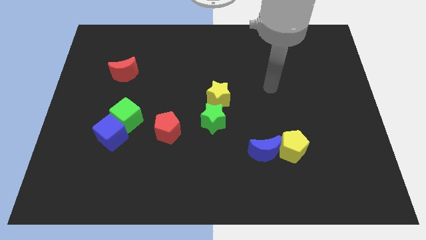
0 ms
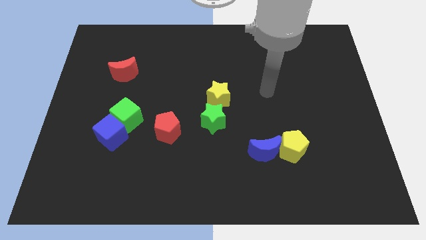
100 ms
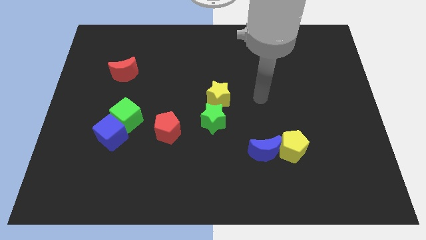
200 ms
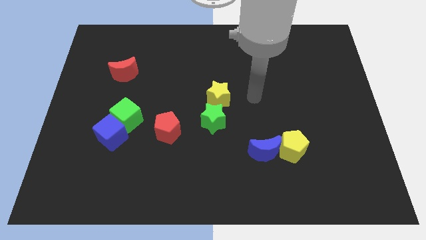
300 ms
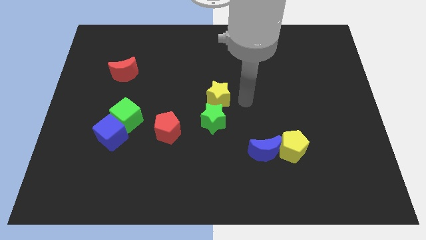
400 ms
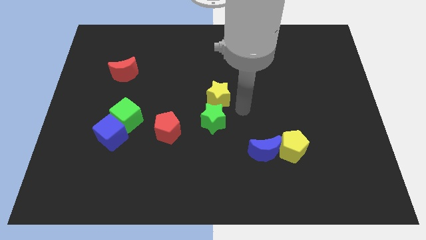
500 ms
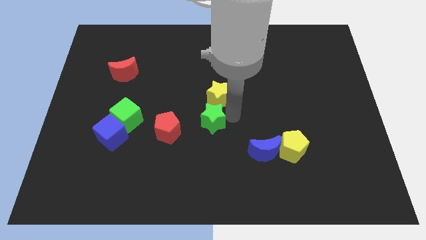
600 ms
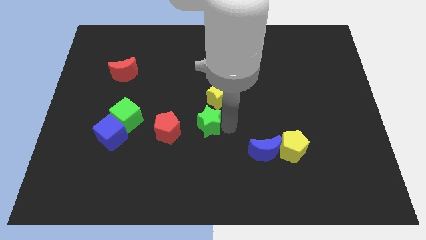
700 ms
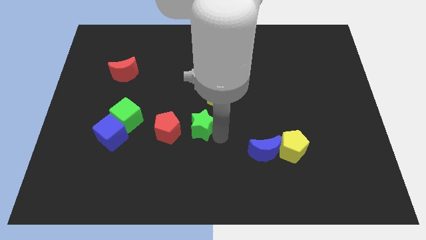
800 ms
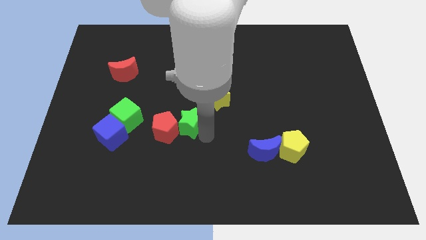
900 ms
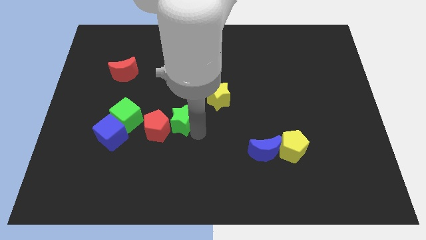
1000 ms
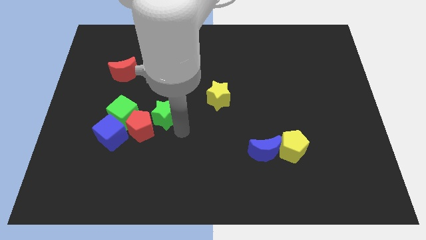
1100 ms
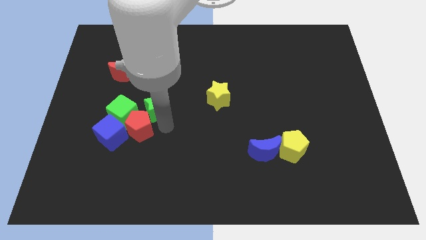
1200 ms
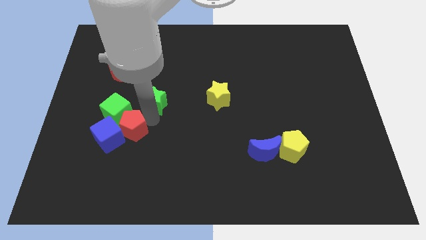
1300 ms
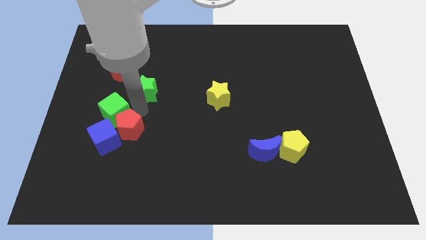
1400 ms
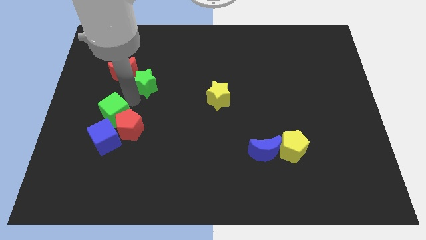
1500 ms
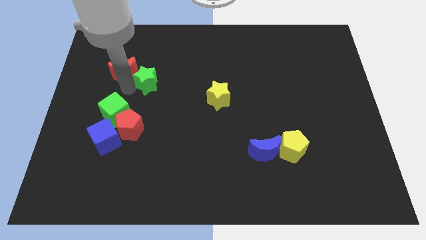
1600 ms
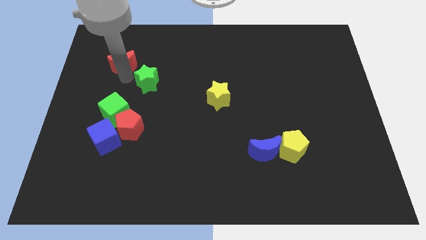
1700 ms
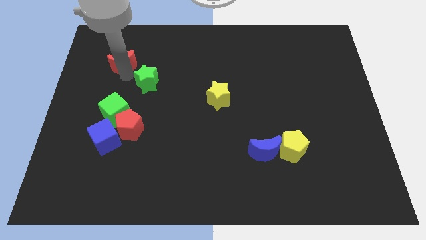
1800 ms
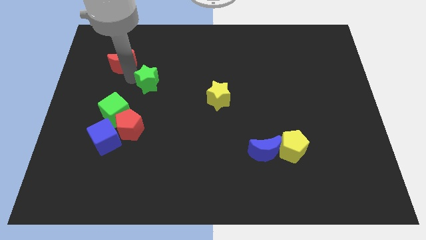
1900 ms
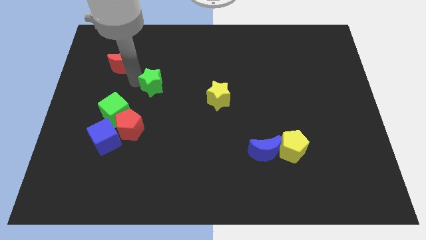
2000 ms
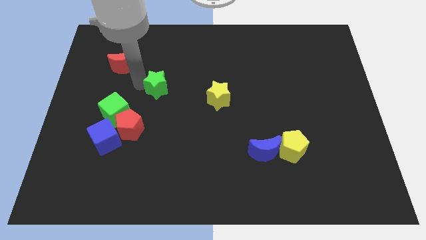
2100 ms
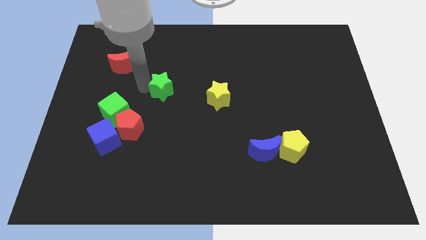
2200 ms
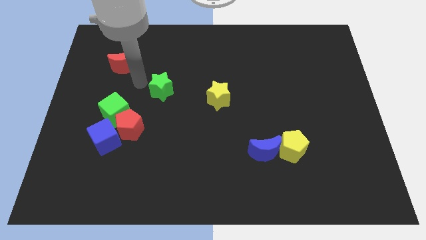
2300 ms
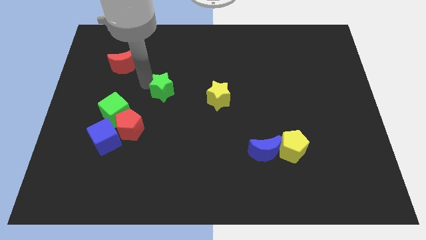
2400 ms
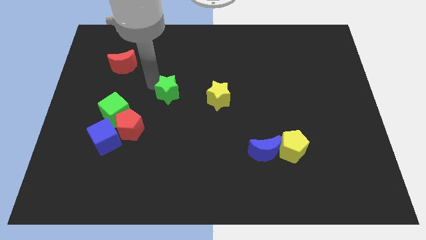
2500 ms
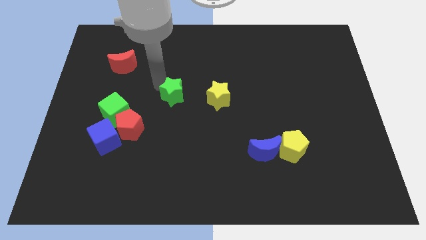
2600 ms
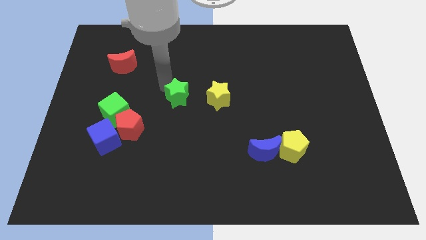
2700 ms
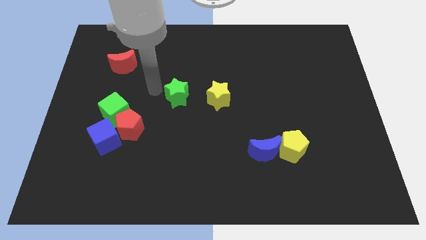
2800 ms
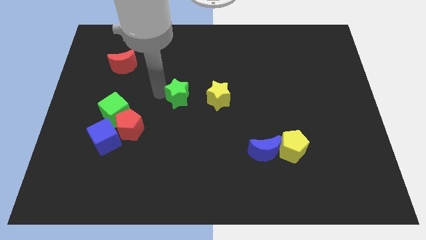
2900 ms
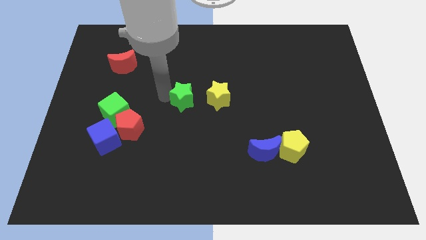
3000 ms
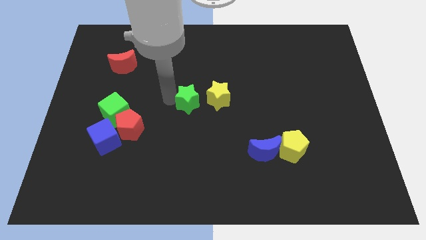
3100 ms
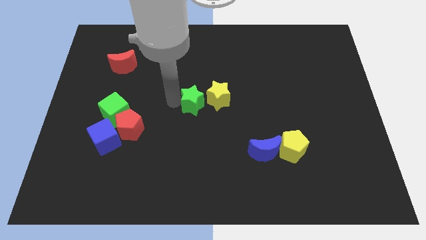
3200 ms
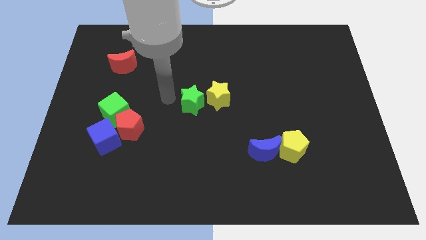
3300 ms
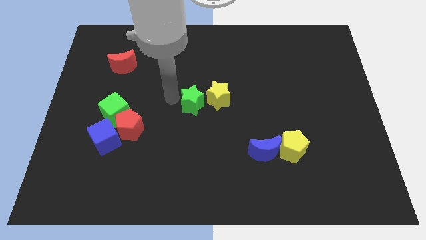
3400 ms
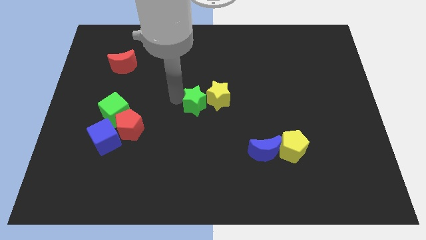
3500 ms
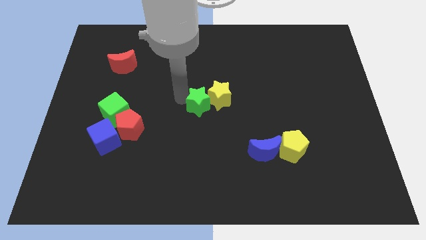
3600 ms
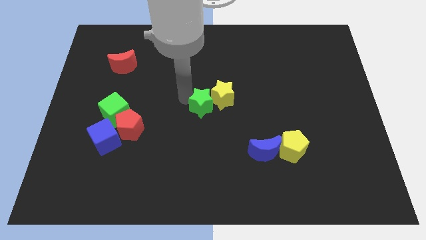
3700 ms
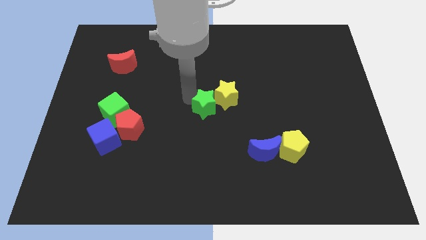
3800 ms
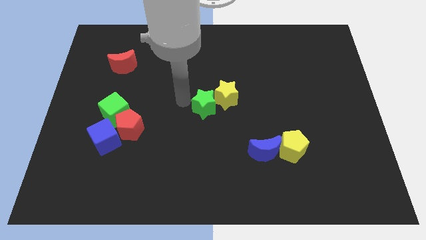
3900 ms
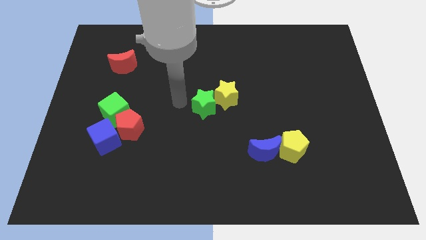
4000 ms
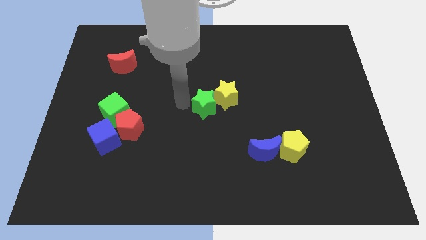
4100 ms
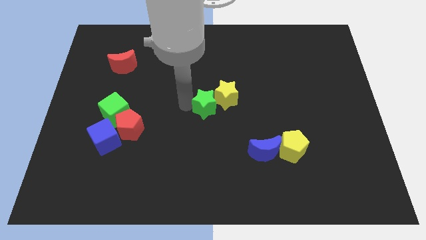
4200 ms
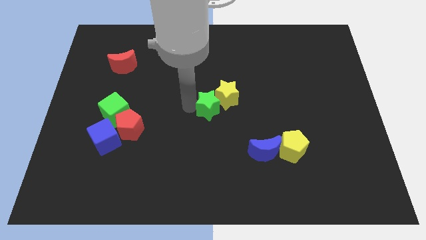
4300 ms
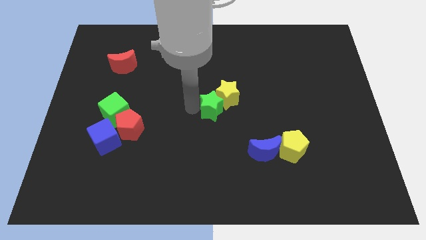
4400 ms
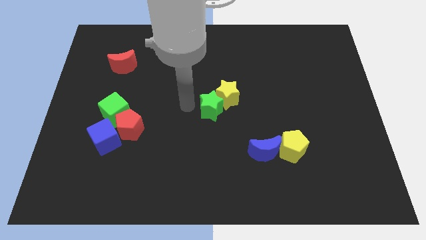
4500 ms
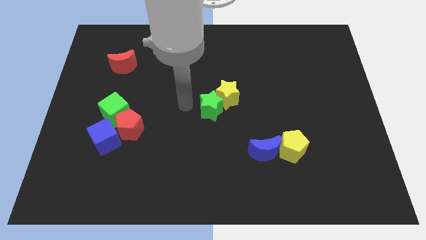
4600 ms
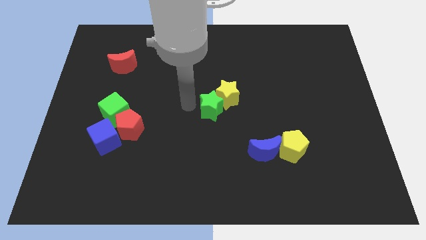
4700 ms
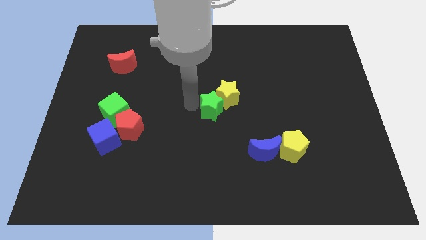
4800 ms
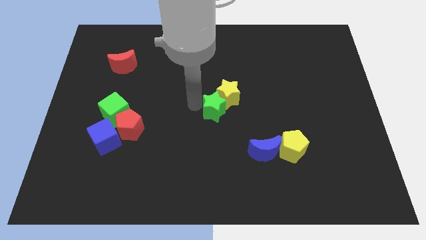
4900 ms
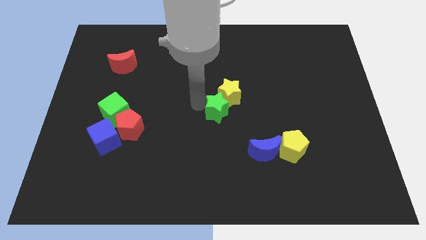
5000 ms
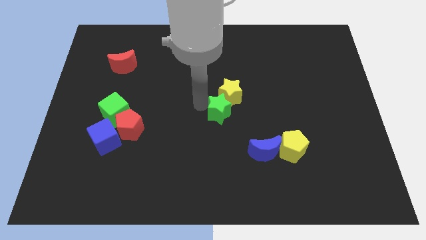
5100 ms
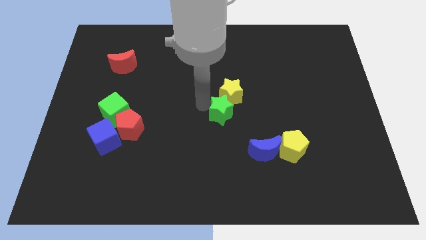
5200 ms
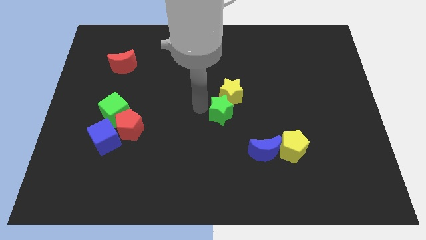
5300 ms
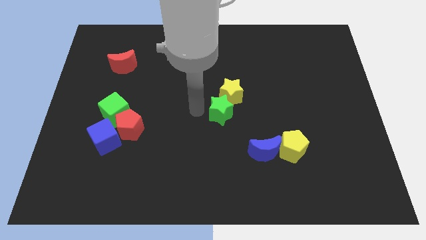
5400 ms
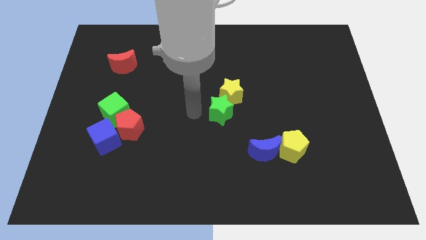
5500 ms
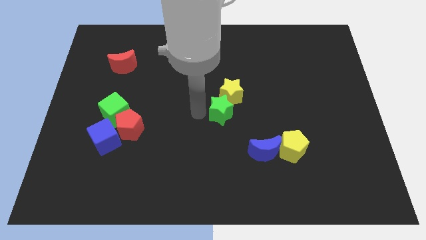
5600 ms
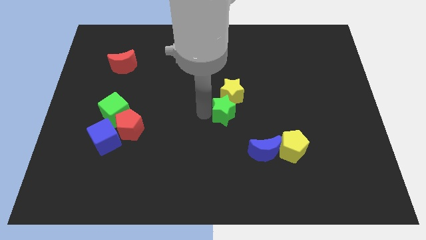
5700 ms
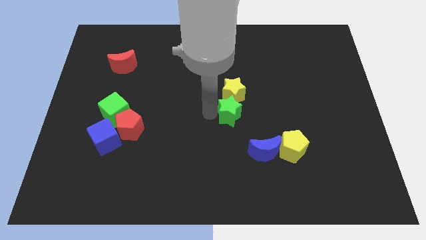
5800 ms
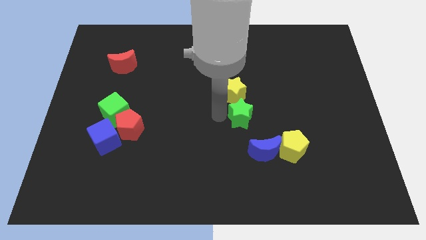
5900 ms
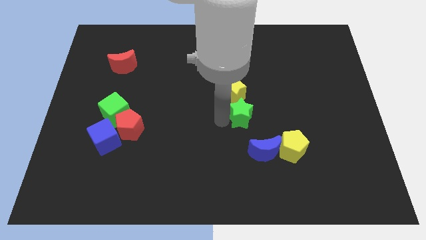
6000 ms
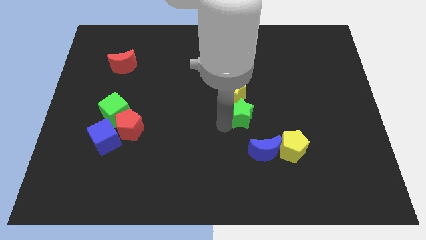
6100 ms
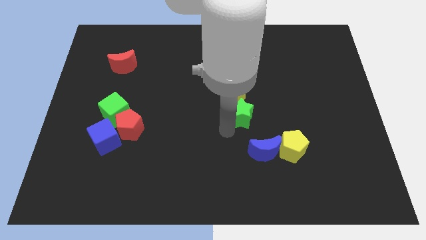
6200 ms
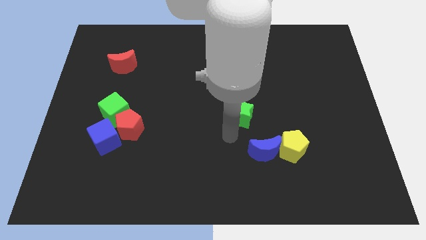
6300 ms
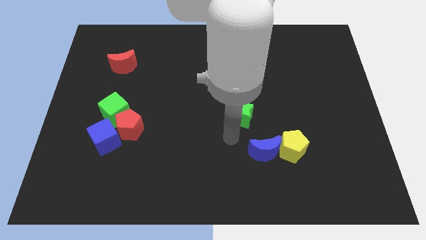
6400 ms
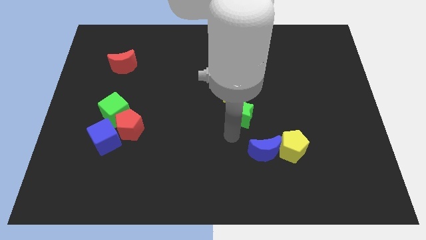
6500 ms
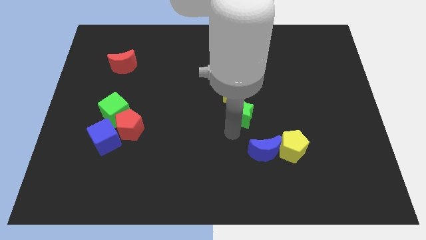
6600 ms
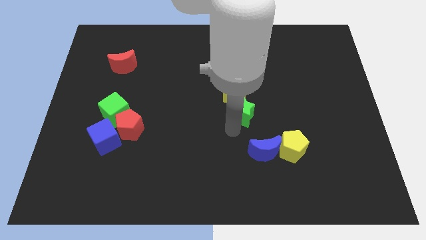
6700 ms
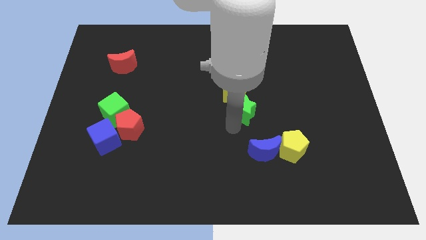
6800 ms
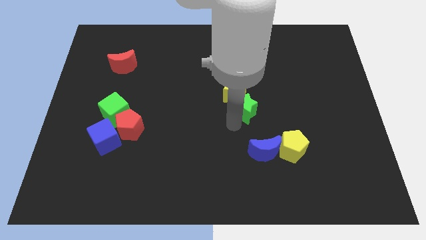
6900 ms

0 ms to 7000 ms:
slide the green star slightly upwards and right diagonally

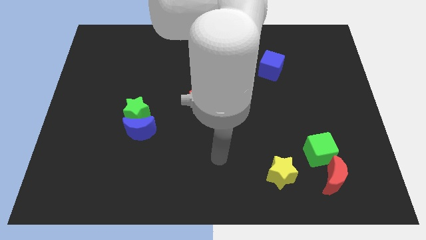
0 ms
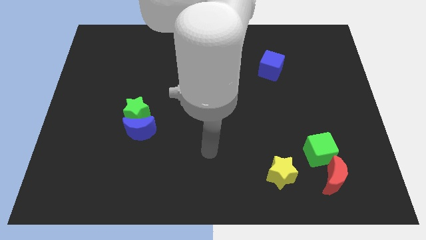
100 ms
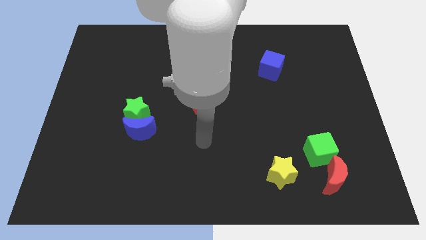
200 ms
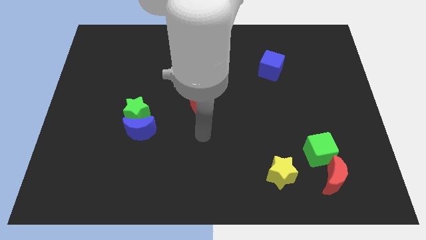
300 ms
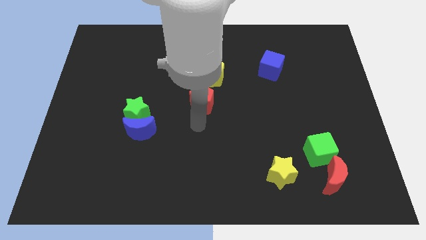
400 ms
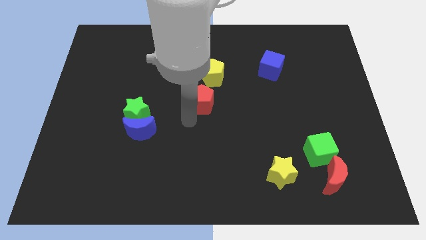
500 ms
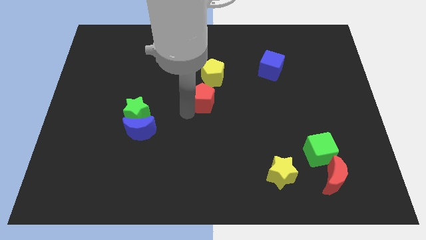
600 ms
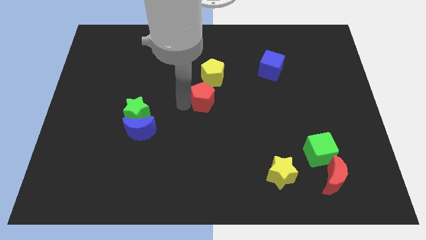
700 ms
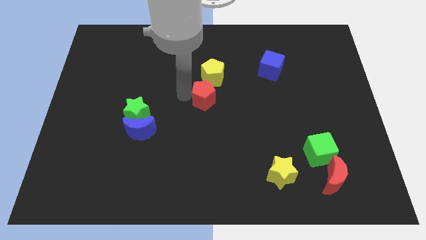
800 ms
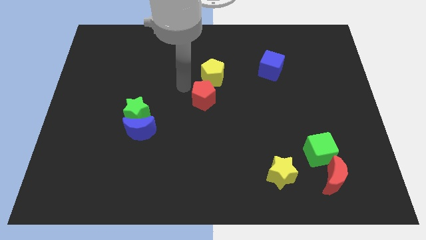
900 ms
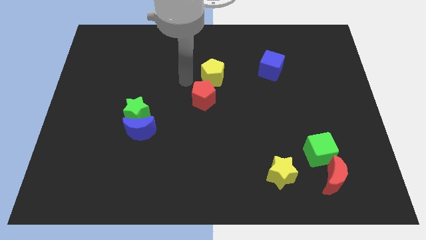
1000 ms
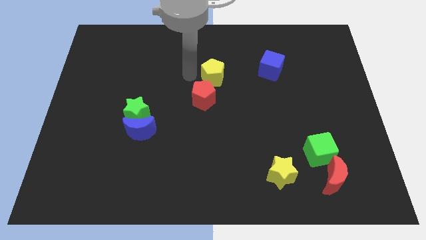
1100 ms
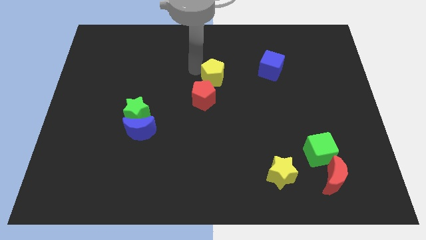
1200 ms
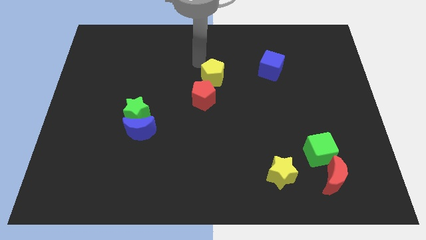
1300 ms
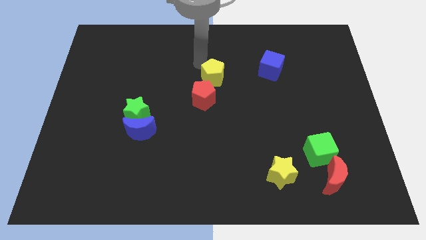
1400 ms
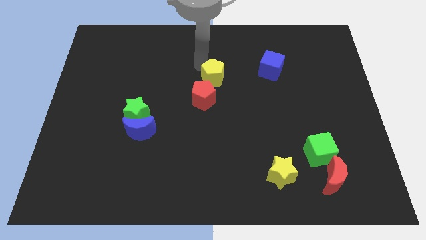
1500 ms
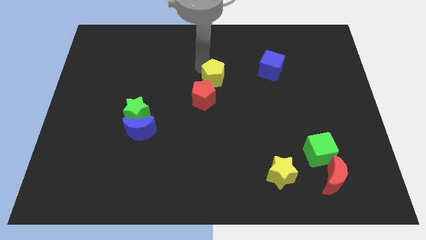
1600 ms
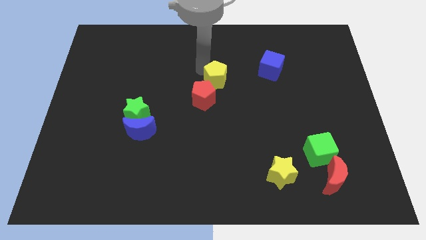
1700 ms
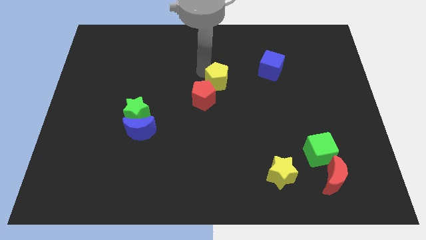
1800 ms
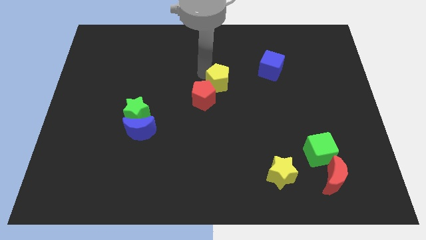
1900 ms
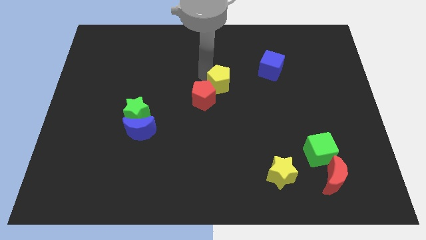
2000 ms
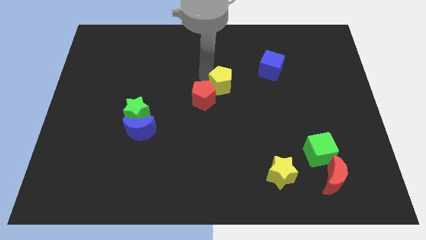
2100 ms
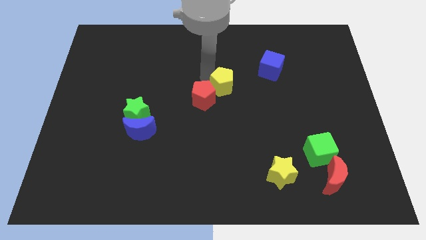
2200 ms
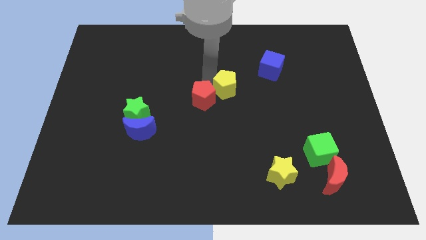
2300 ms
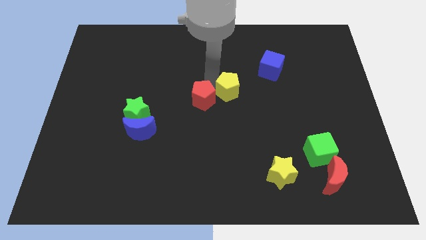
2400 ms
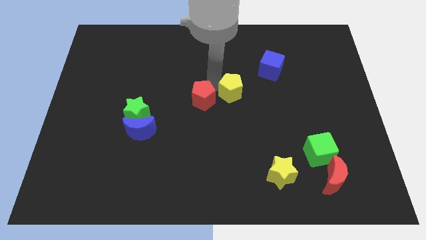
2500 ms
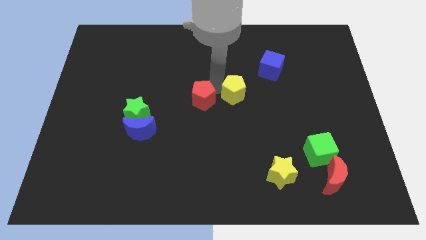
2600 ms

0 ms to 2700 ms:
push the yellow pentagon down and to the right diagonally a bit
